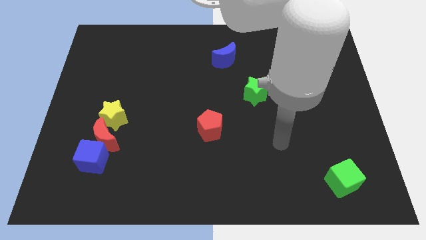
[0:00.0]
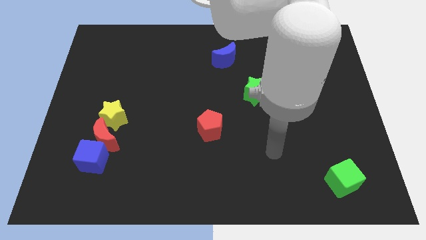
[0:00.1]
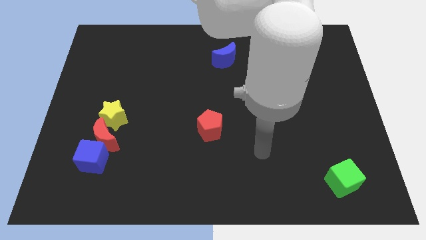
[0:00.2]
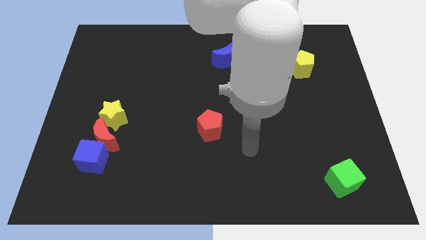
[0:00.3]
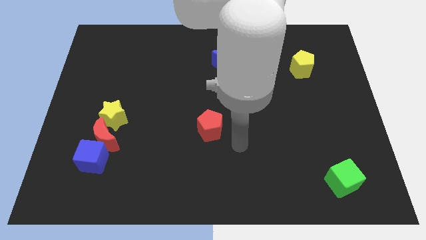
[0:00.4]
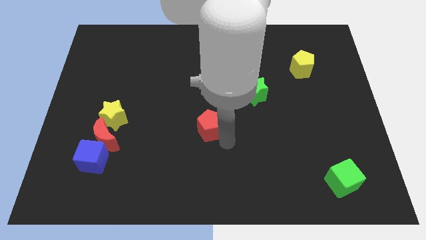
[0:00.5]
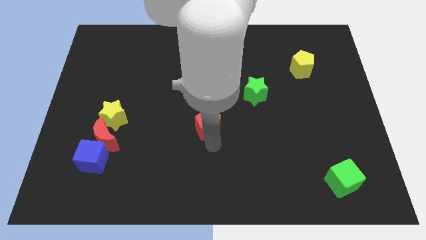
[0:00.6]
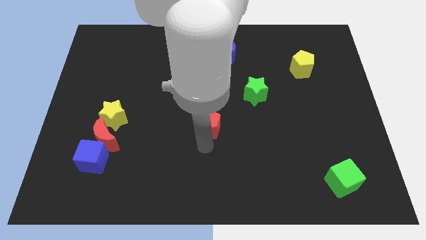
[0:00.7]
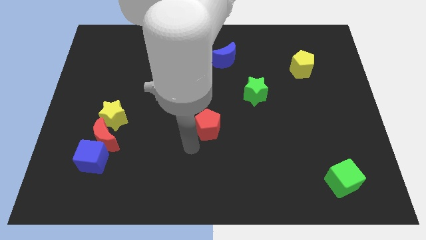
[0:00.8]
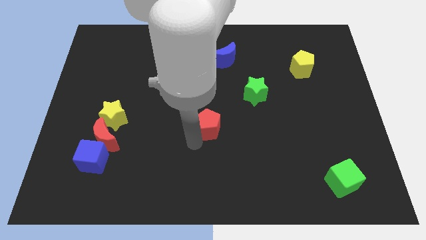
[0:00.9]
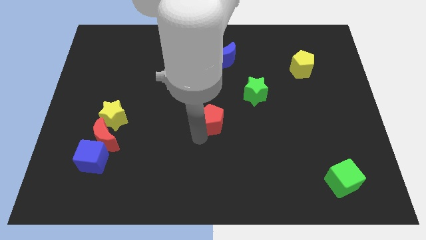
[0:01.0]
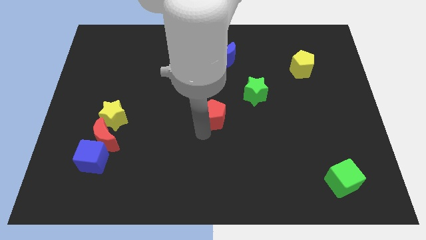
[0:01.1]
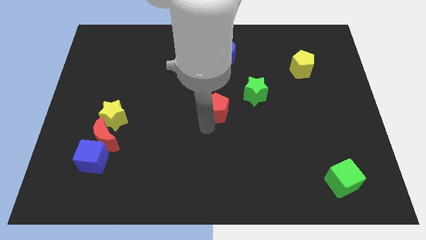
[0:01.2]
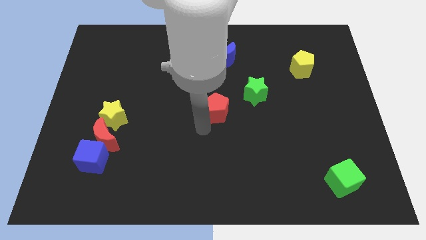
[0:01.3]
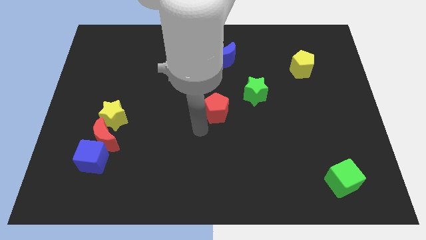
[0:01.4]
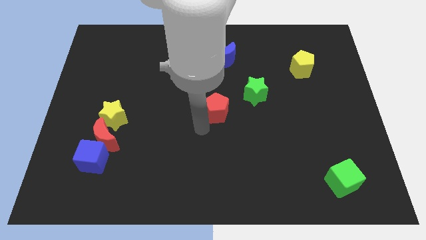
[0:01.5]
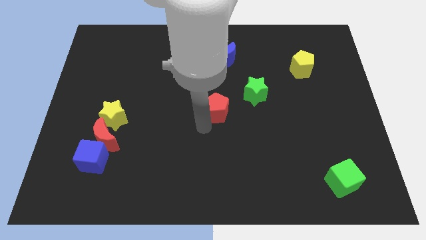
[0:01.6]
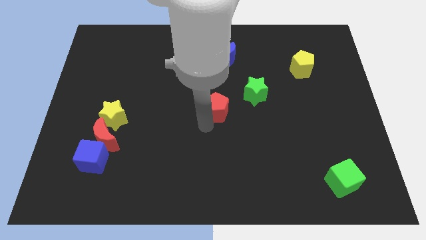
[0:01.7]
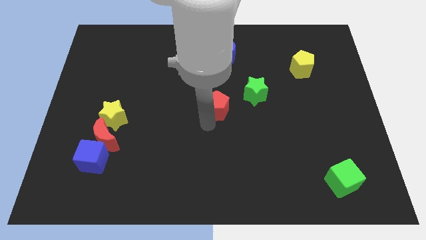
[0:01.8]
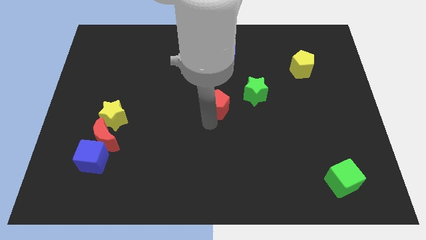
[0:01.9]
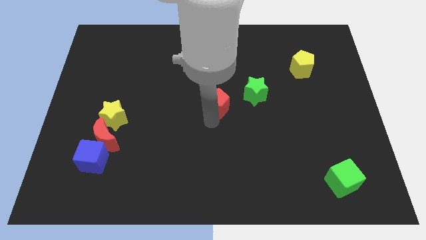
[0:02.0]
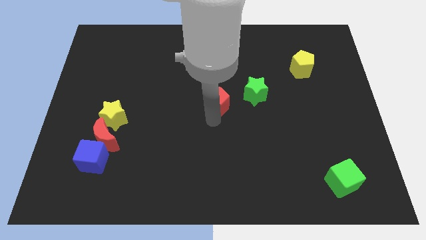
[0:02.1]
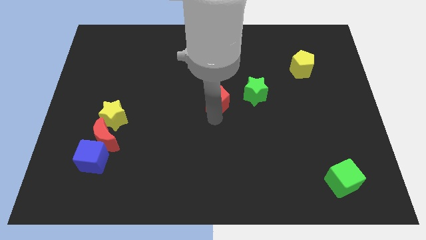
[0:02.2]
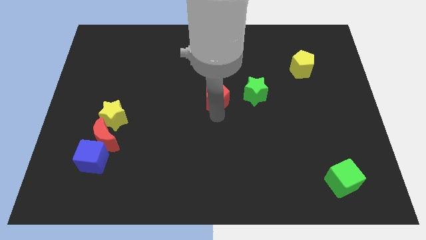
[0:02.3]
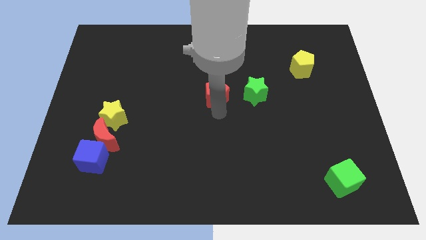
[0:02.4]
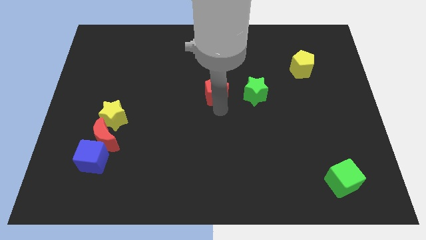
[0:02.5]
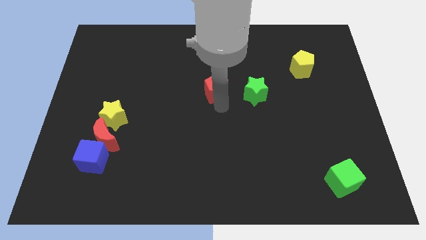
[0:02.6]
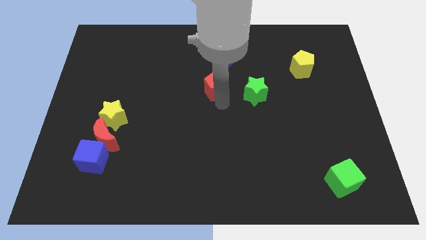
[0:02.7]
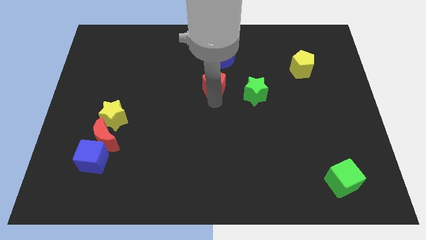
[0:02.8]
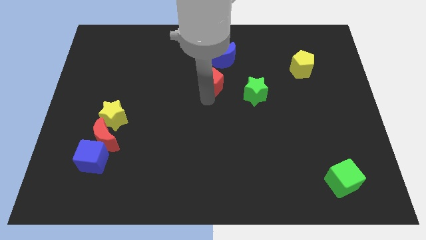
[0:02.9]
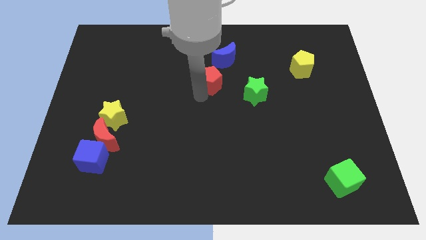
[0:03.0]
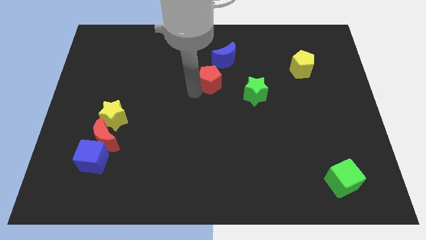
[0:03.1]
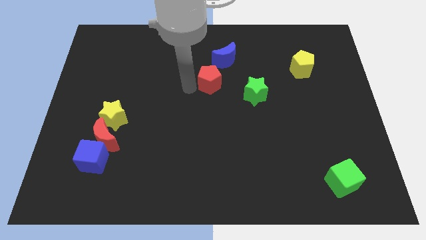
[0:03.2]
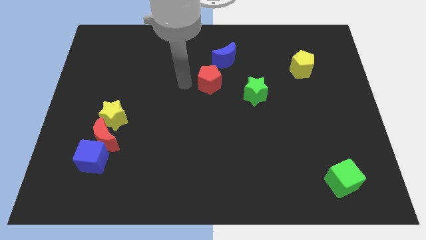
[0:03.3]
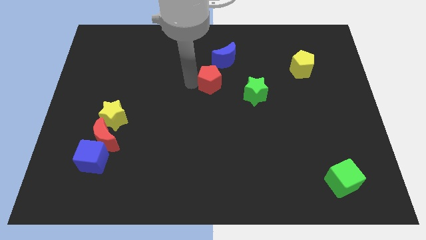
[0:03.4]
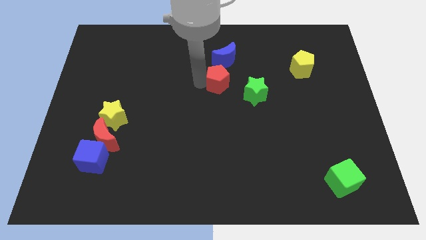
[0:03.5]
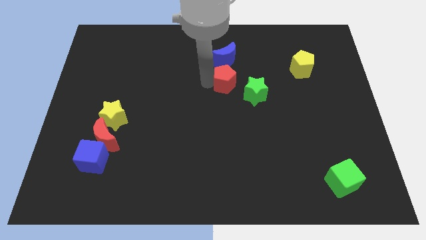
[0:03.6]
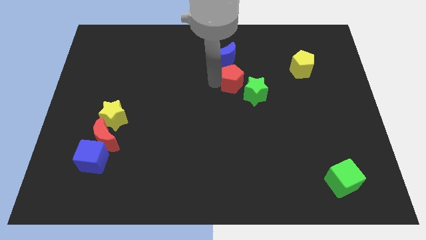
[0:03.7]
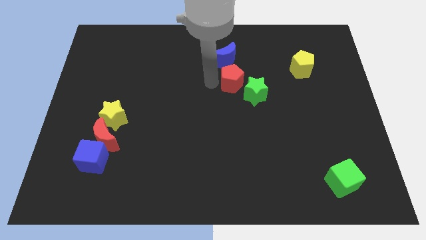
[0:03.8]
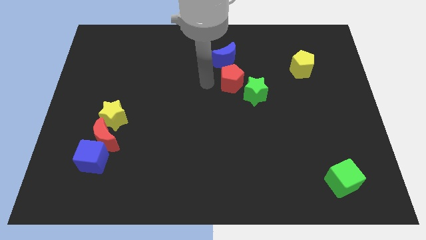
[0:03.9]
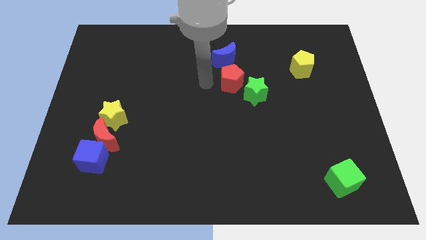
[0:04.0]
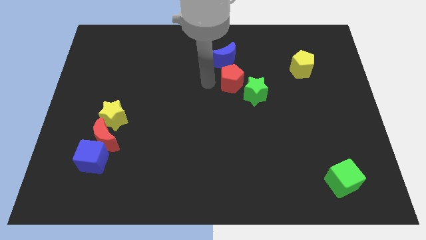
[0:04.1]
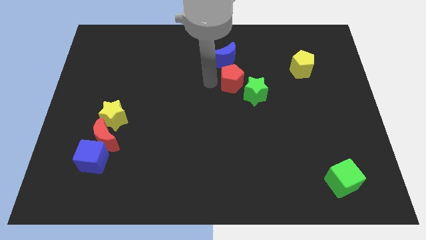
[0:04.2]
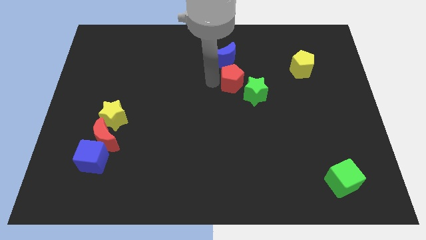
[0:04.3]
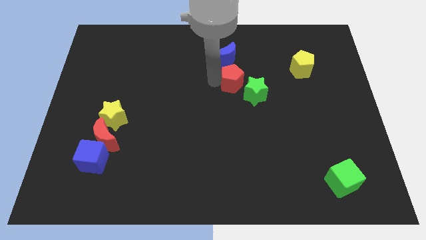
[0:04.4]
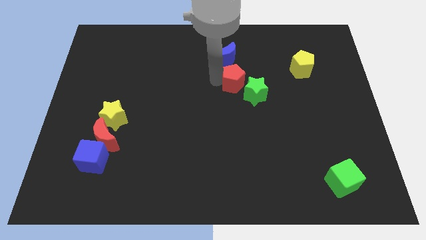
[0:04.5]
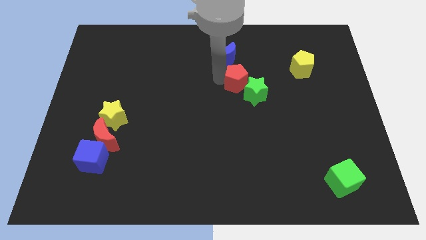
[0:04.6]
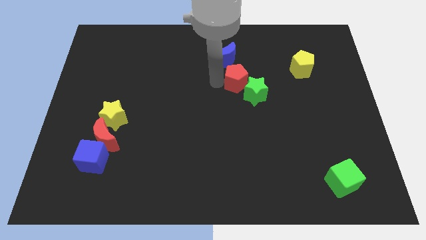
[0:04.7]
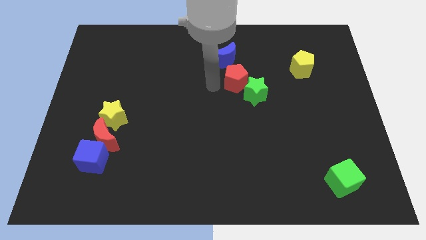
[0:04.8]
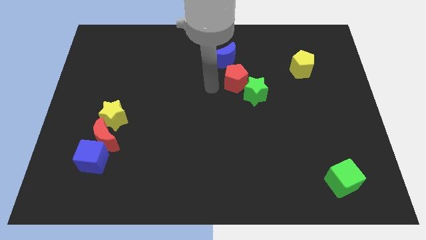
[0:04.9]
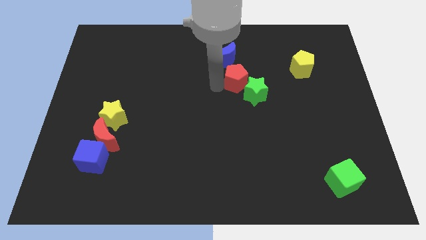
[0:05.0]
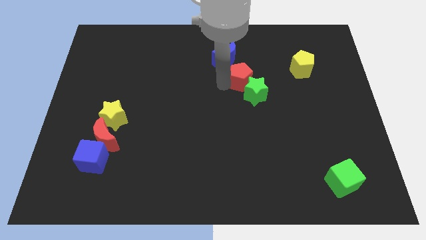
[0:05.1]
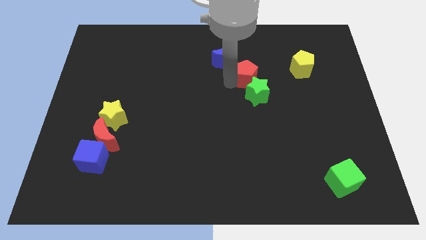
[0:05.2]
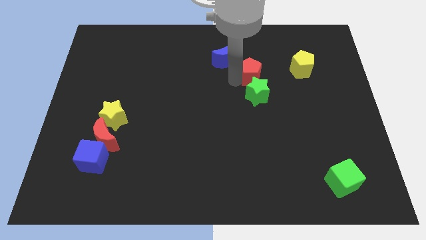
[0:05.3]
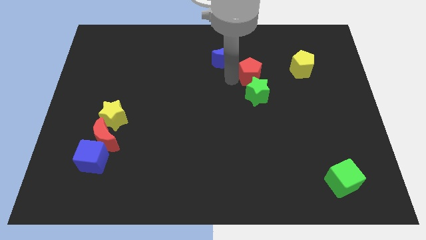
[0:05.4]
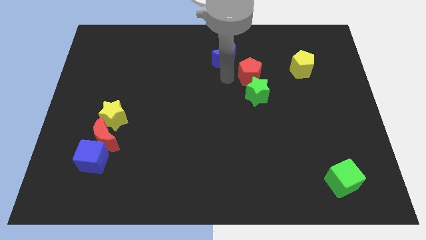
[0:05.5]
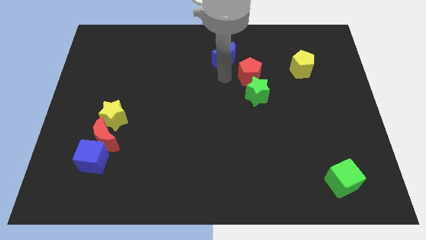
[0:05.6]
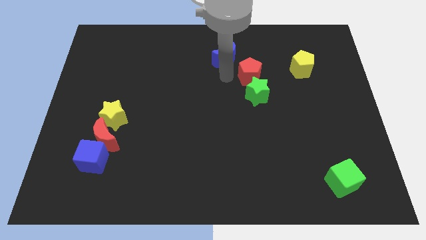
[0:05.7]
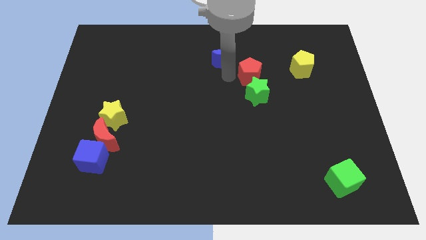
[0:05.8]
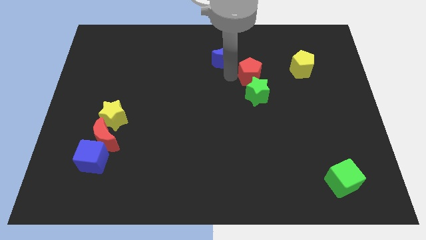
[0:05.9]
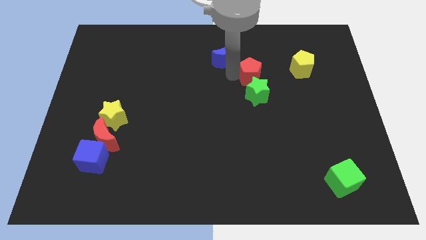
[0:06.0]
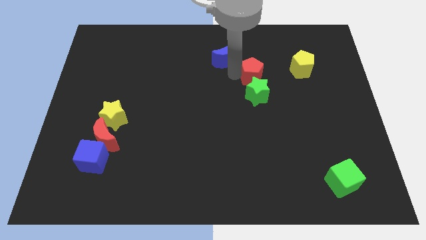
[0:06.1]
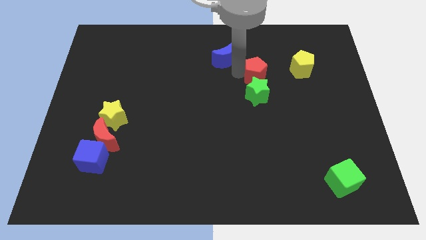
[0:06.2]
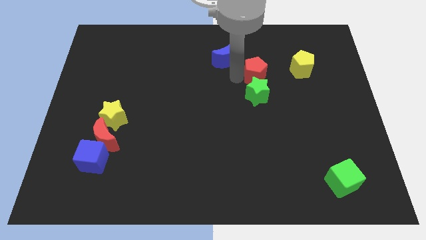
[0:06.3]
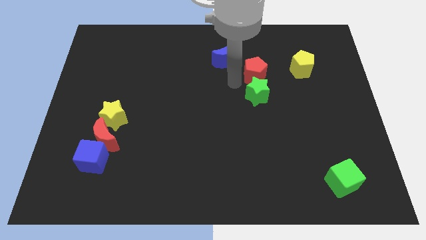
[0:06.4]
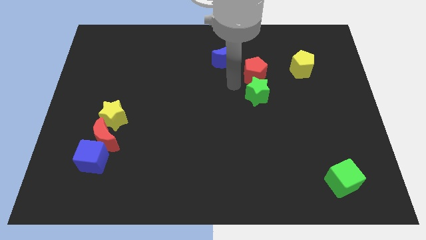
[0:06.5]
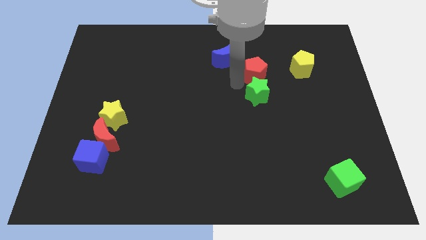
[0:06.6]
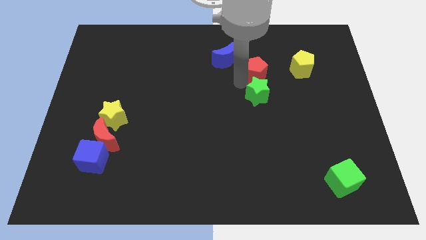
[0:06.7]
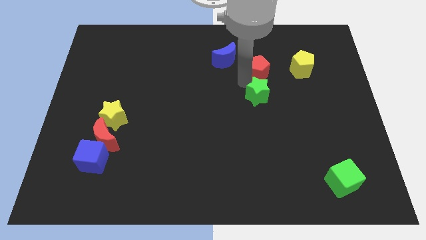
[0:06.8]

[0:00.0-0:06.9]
move the red pentagon upwards and to the right diagonally

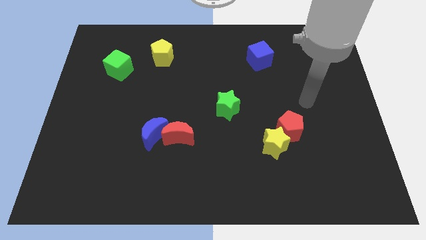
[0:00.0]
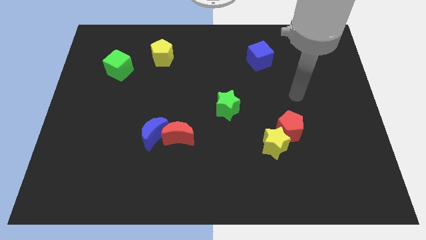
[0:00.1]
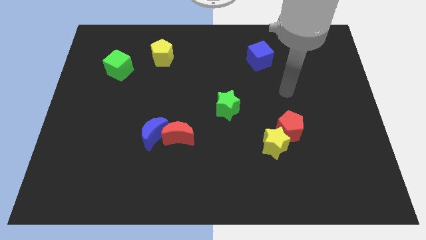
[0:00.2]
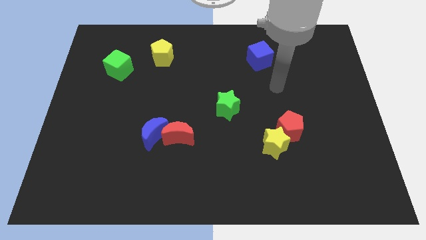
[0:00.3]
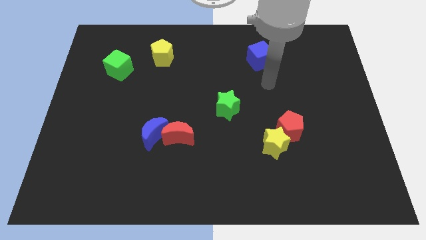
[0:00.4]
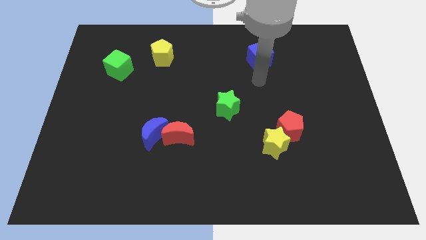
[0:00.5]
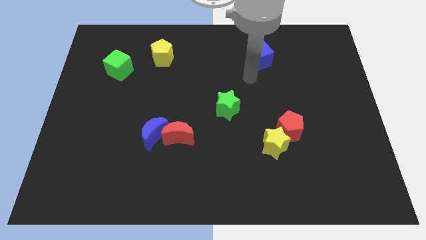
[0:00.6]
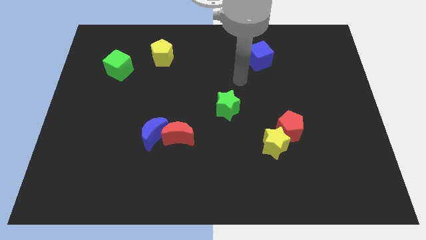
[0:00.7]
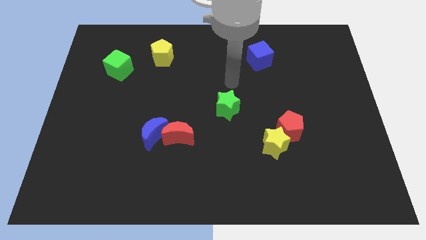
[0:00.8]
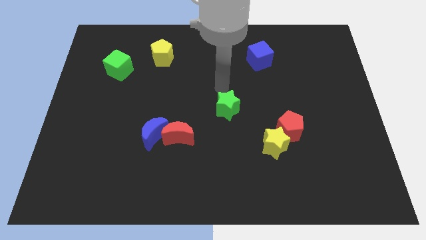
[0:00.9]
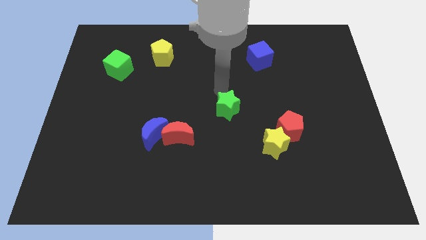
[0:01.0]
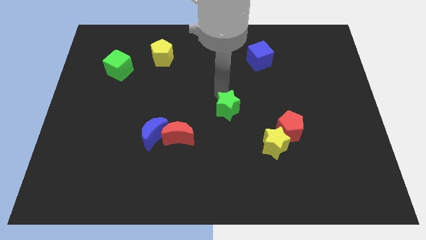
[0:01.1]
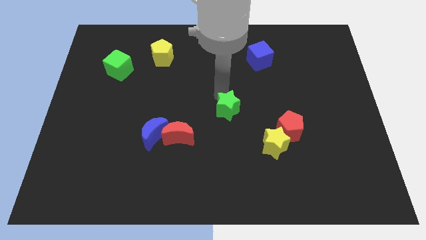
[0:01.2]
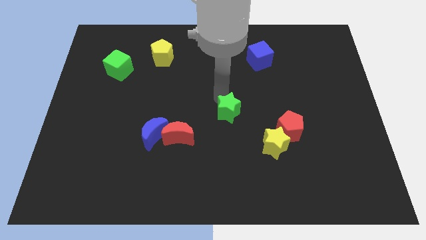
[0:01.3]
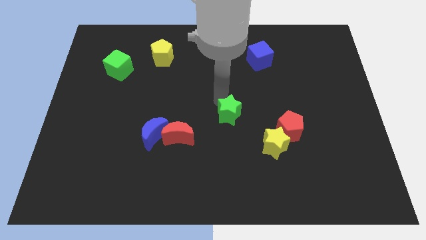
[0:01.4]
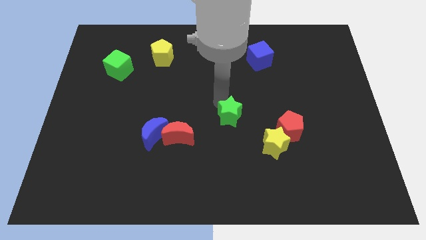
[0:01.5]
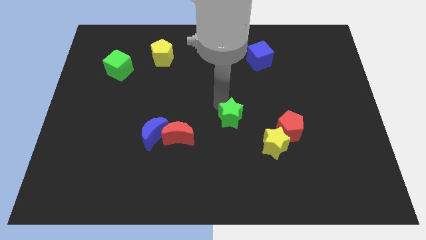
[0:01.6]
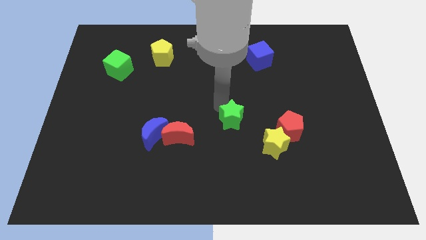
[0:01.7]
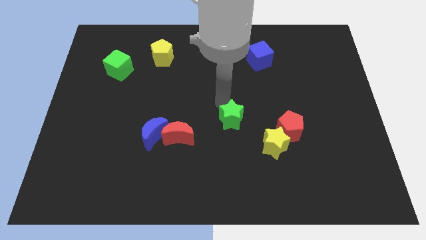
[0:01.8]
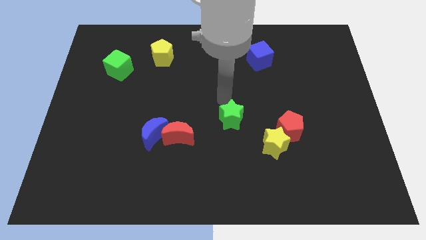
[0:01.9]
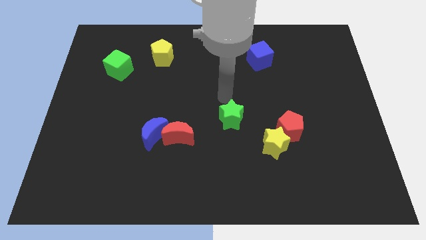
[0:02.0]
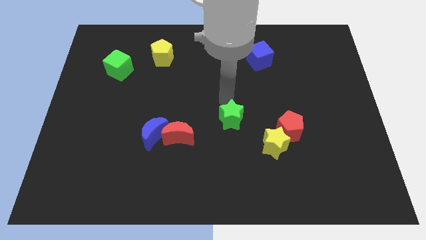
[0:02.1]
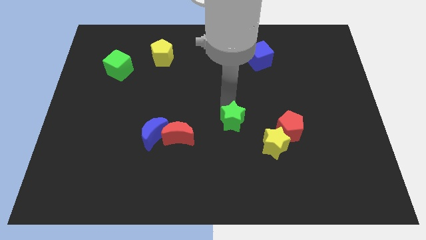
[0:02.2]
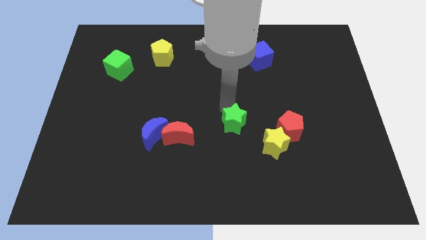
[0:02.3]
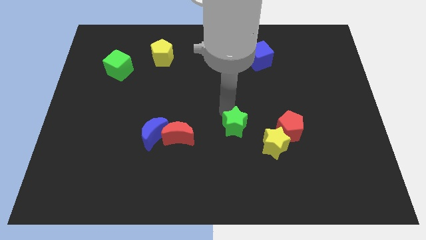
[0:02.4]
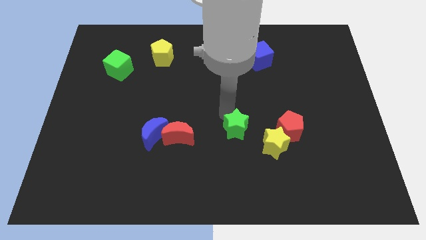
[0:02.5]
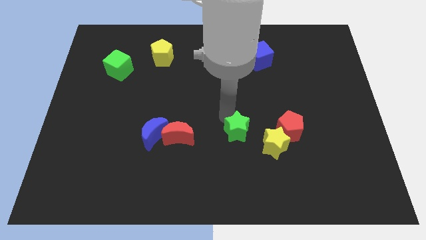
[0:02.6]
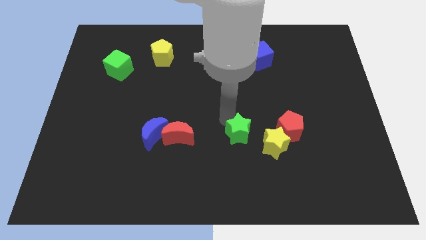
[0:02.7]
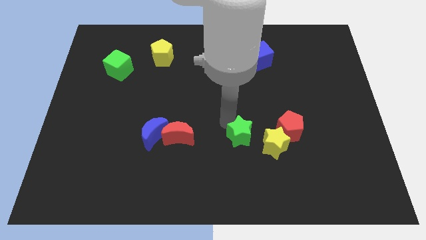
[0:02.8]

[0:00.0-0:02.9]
push the green star slightly downwards and right
